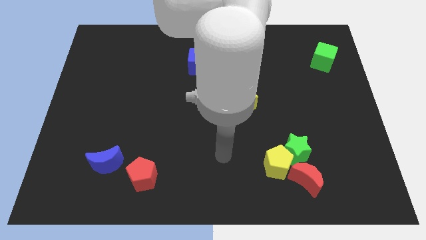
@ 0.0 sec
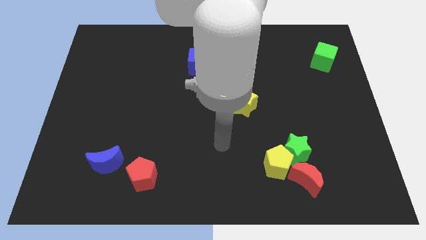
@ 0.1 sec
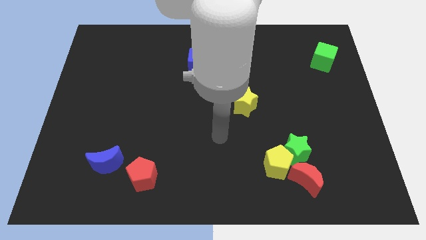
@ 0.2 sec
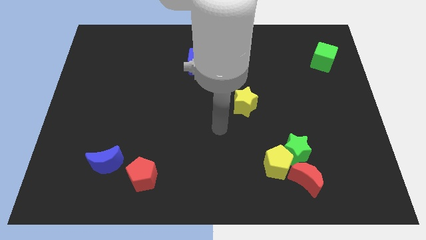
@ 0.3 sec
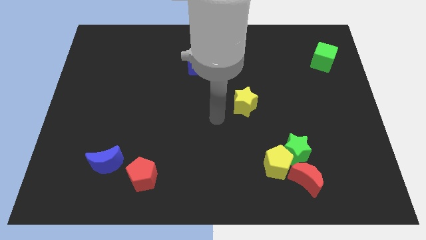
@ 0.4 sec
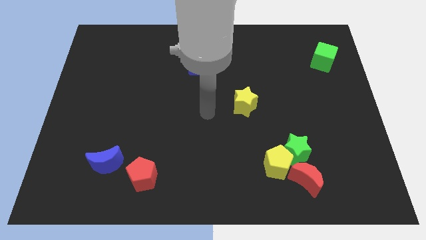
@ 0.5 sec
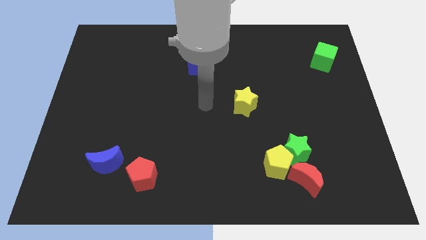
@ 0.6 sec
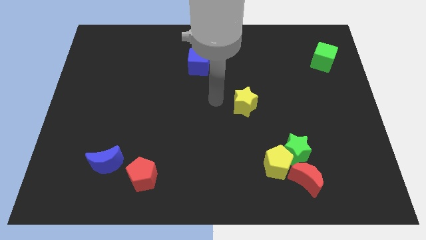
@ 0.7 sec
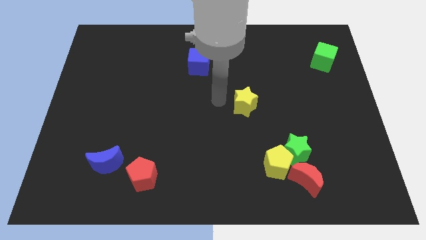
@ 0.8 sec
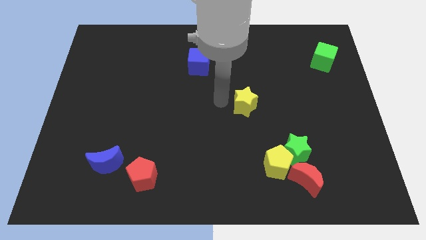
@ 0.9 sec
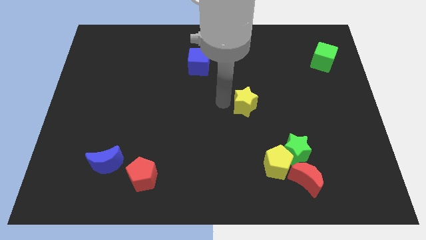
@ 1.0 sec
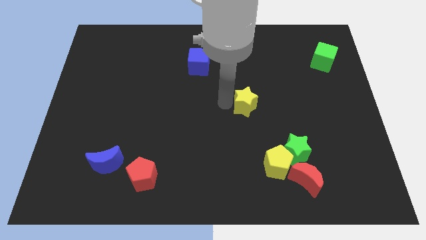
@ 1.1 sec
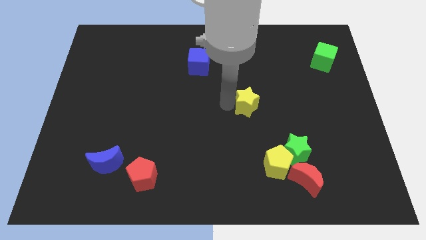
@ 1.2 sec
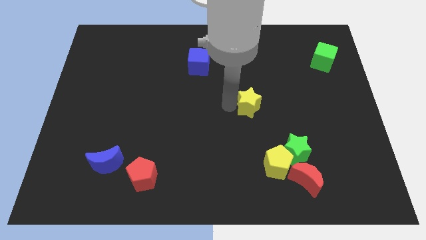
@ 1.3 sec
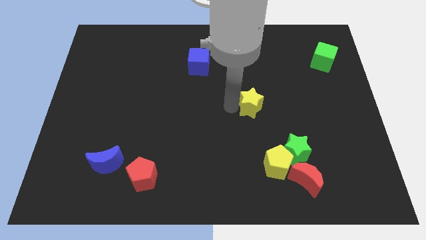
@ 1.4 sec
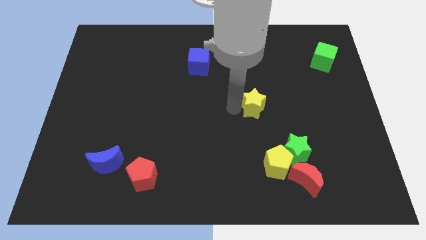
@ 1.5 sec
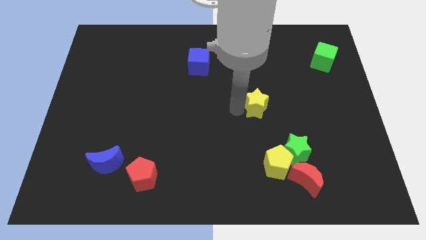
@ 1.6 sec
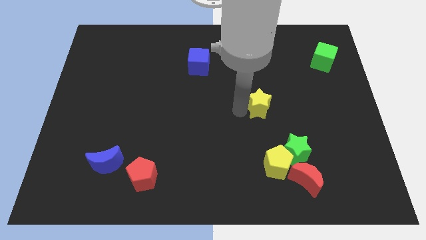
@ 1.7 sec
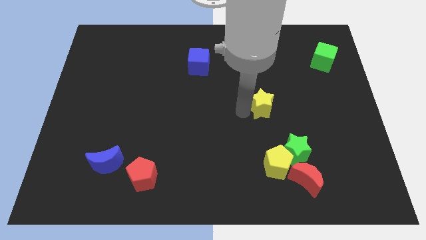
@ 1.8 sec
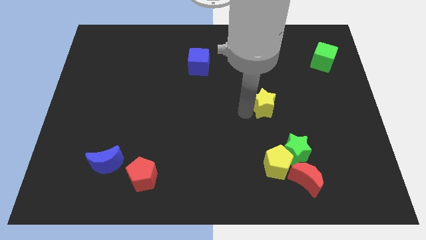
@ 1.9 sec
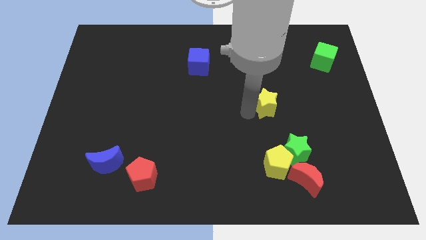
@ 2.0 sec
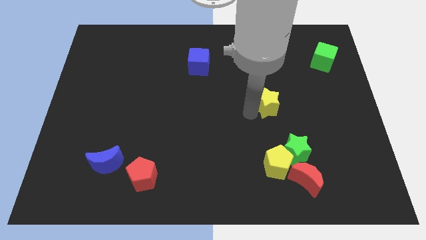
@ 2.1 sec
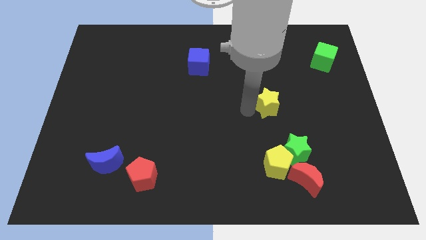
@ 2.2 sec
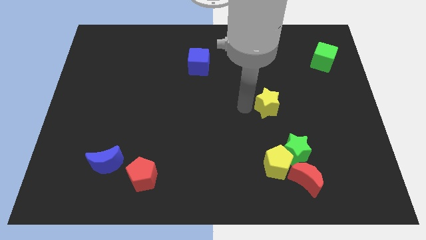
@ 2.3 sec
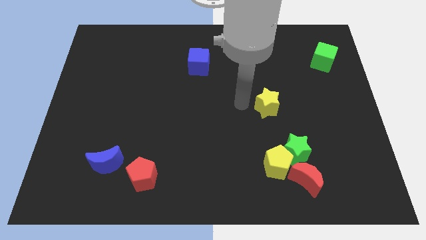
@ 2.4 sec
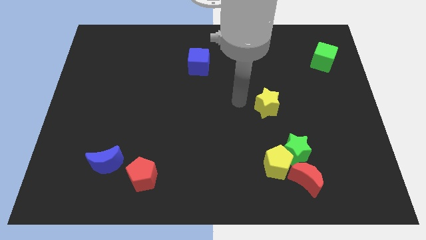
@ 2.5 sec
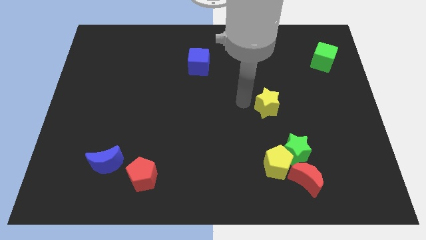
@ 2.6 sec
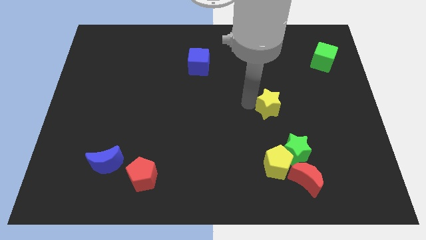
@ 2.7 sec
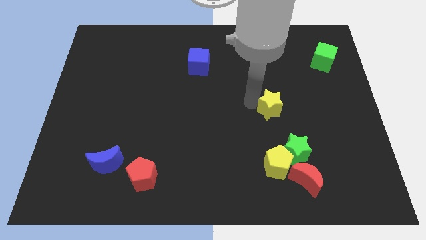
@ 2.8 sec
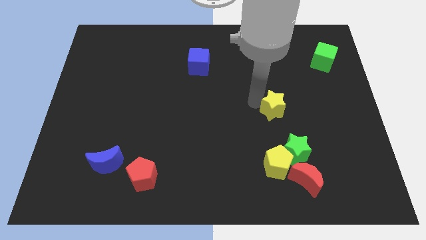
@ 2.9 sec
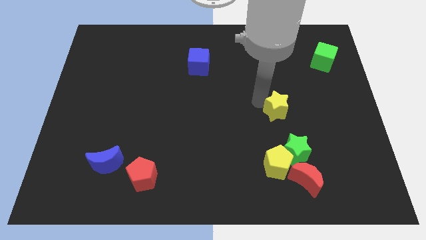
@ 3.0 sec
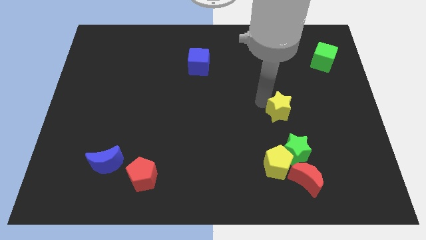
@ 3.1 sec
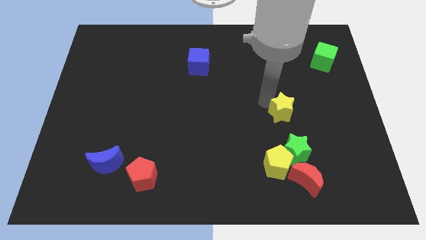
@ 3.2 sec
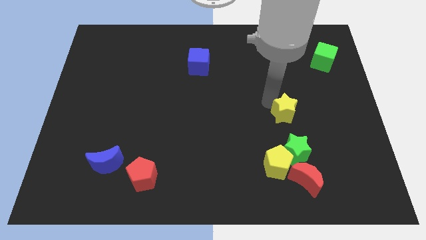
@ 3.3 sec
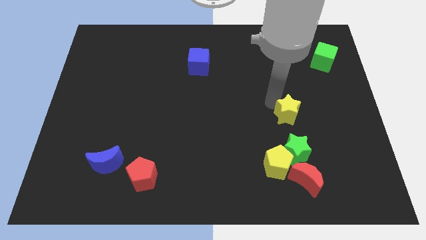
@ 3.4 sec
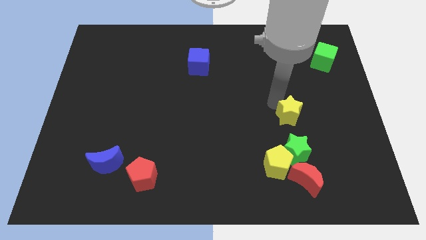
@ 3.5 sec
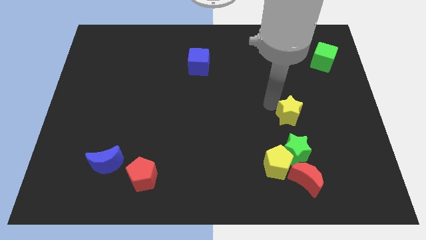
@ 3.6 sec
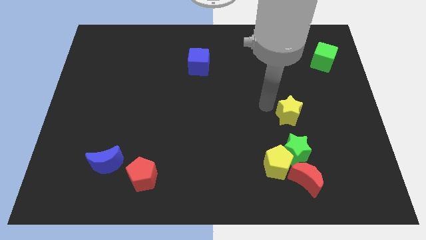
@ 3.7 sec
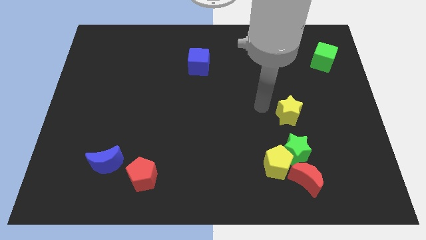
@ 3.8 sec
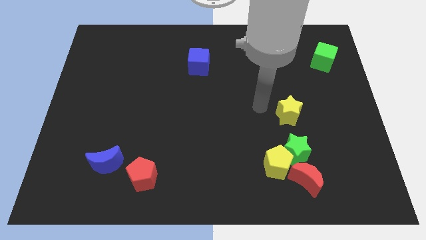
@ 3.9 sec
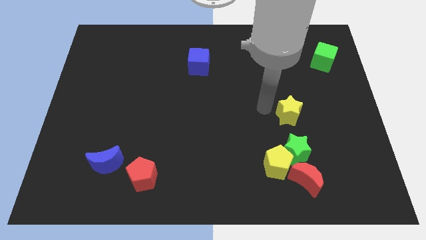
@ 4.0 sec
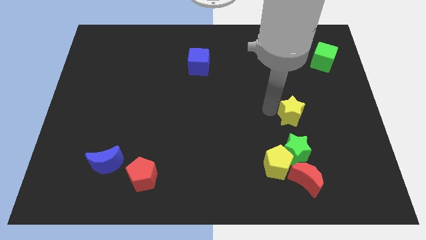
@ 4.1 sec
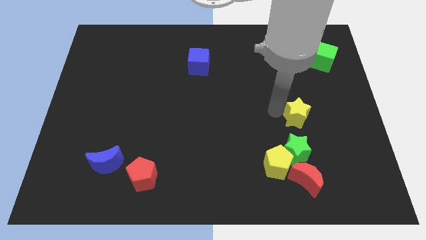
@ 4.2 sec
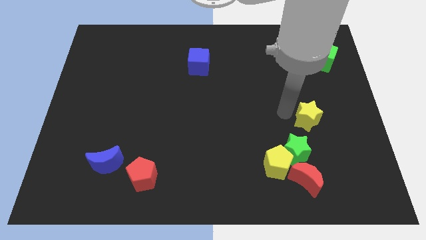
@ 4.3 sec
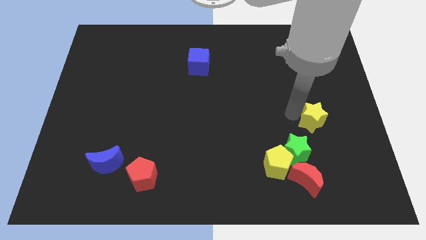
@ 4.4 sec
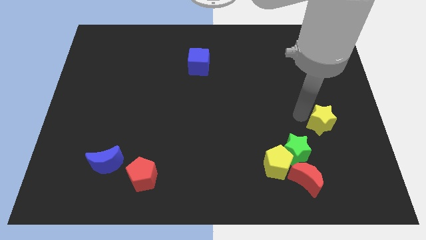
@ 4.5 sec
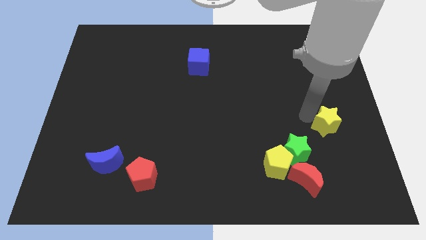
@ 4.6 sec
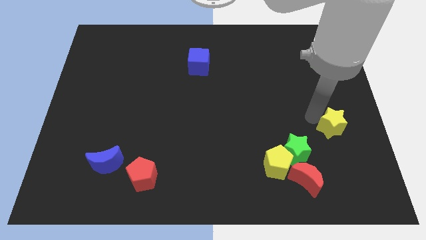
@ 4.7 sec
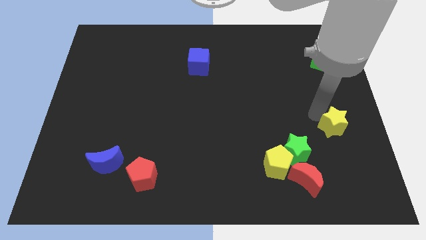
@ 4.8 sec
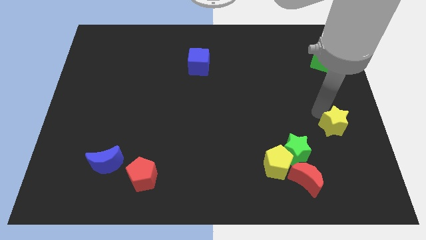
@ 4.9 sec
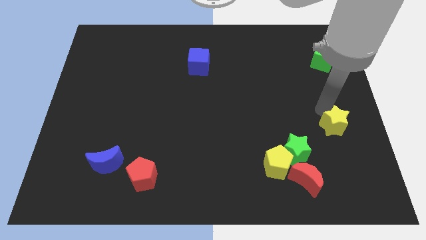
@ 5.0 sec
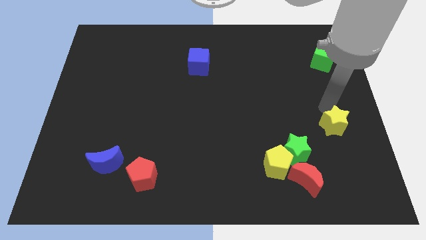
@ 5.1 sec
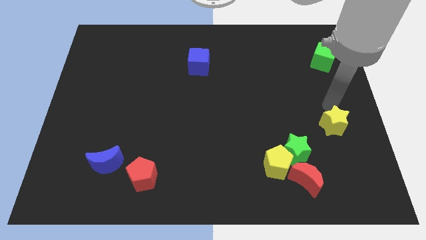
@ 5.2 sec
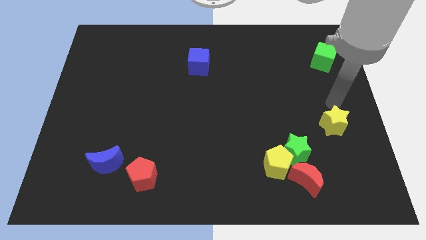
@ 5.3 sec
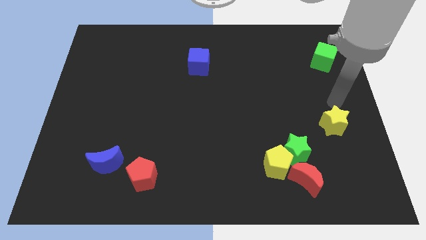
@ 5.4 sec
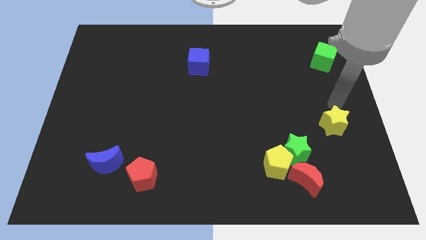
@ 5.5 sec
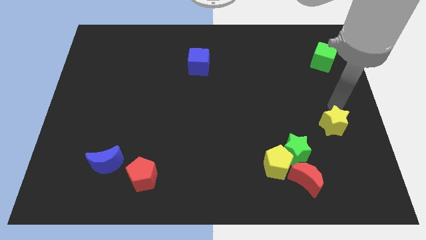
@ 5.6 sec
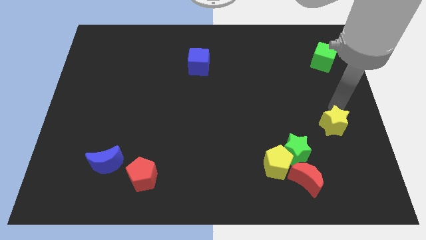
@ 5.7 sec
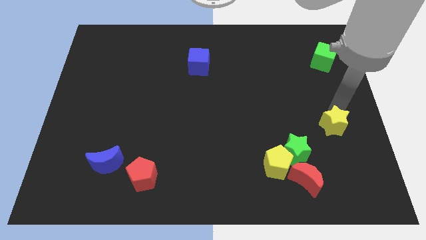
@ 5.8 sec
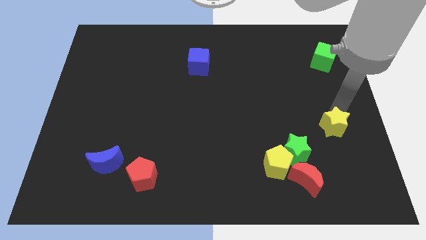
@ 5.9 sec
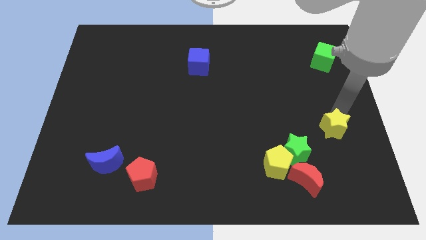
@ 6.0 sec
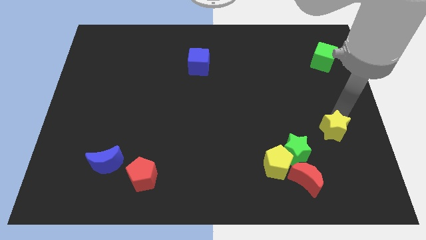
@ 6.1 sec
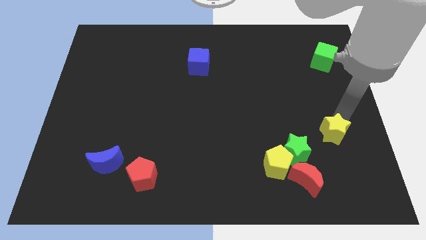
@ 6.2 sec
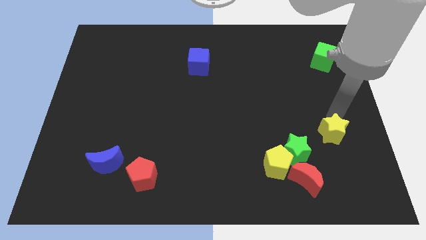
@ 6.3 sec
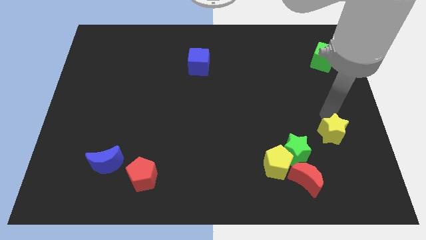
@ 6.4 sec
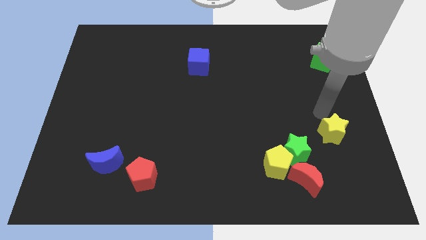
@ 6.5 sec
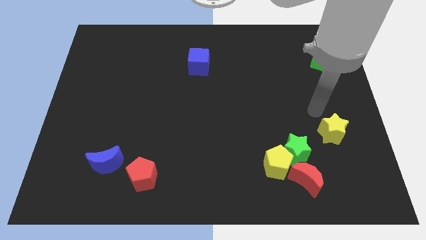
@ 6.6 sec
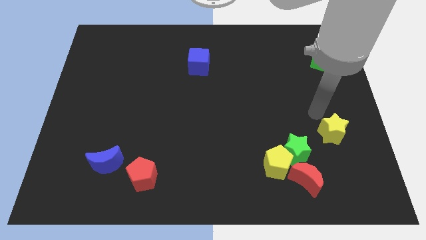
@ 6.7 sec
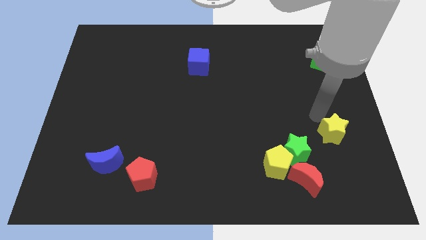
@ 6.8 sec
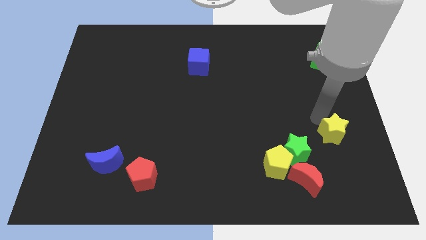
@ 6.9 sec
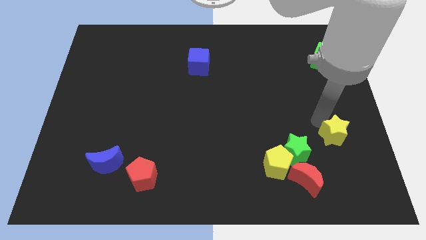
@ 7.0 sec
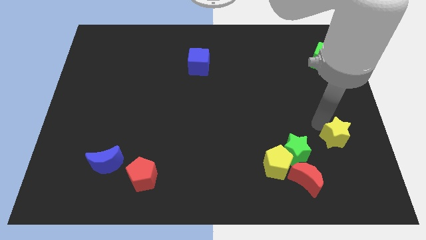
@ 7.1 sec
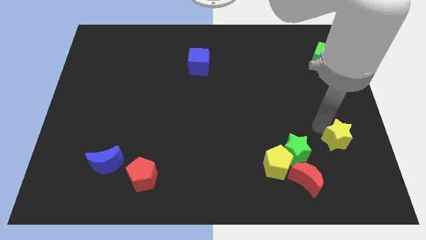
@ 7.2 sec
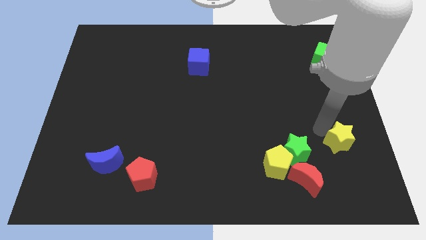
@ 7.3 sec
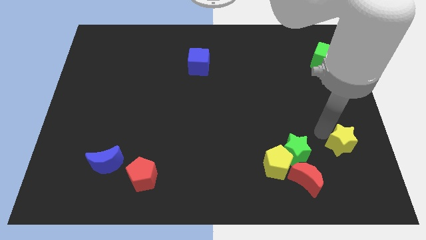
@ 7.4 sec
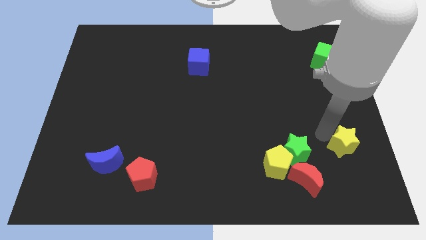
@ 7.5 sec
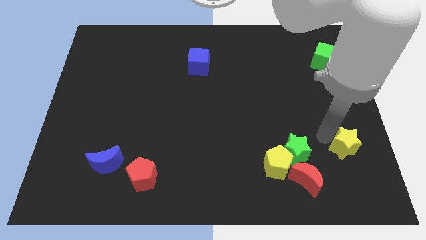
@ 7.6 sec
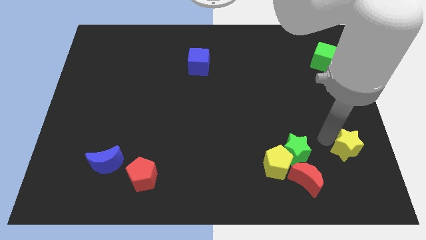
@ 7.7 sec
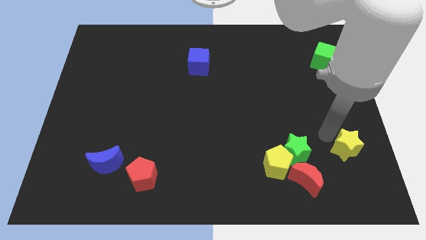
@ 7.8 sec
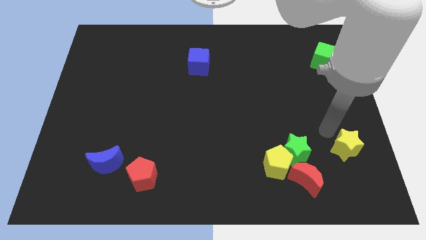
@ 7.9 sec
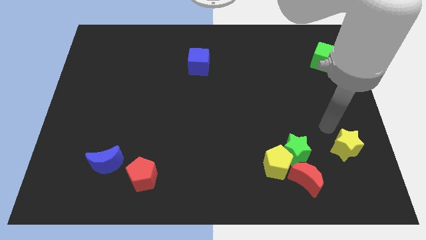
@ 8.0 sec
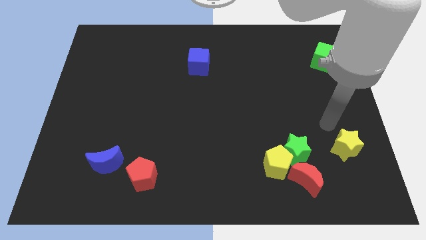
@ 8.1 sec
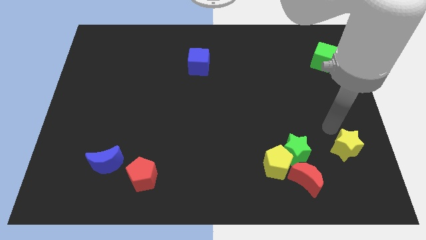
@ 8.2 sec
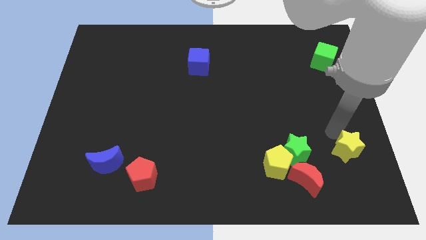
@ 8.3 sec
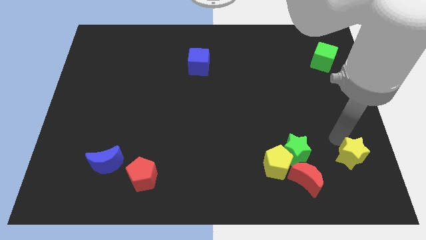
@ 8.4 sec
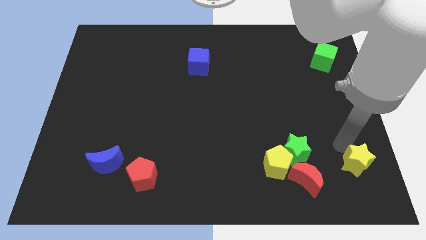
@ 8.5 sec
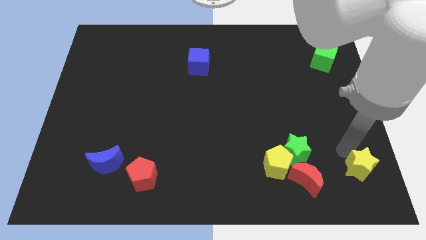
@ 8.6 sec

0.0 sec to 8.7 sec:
put the yellow star to the bottom right corner
